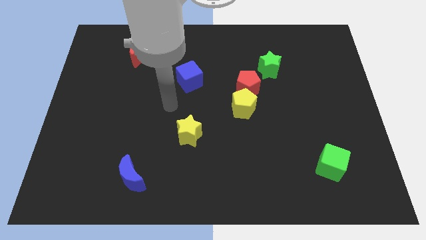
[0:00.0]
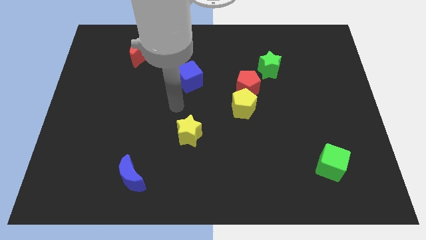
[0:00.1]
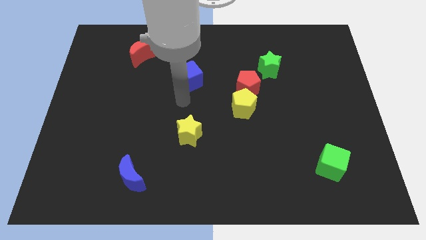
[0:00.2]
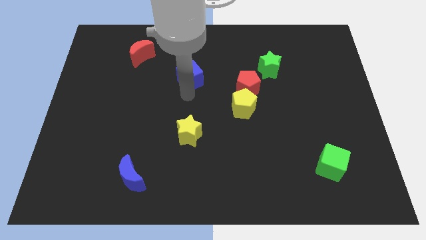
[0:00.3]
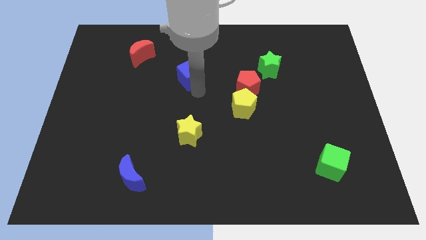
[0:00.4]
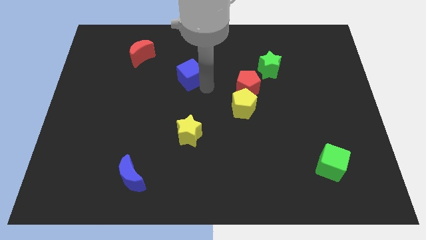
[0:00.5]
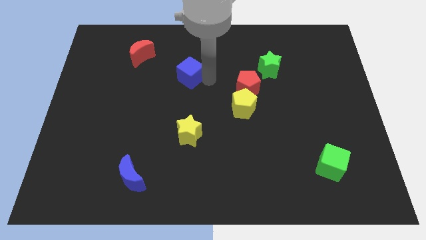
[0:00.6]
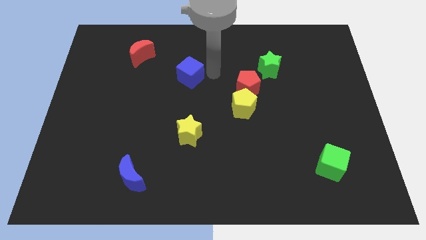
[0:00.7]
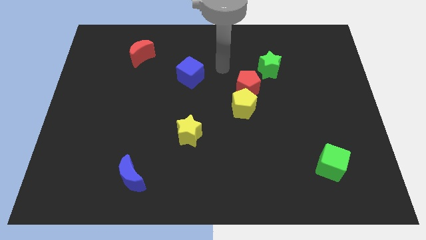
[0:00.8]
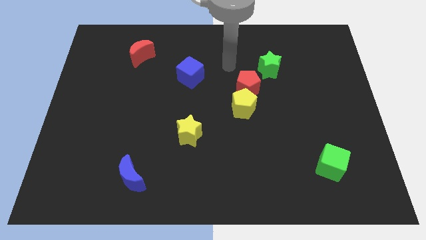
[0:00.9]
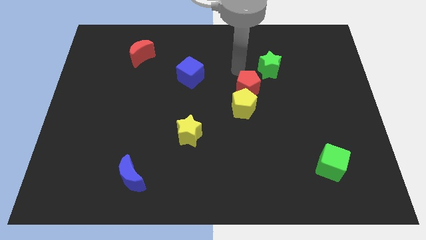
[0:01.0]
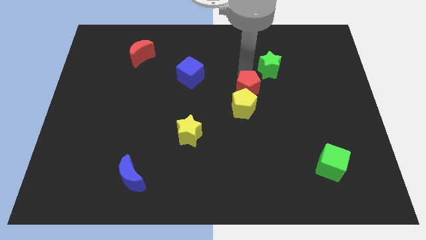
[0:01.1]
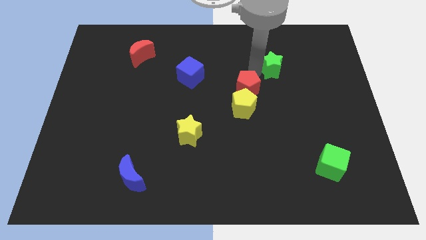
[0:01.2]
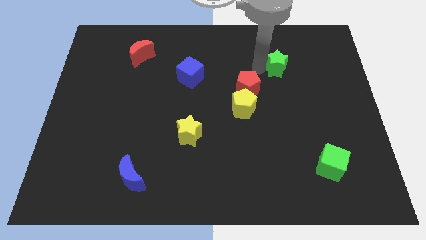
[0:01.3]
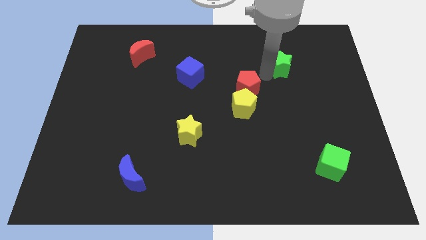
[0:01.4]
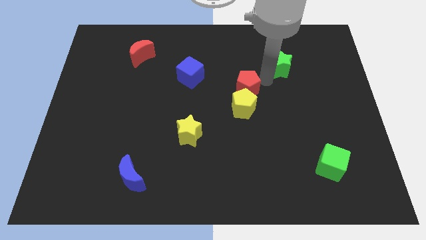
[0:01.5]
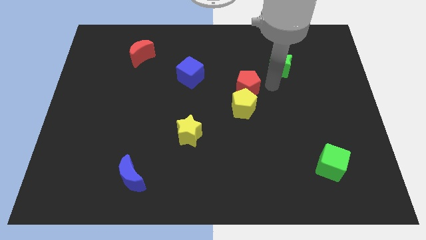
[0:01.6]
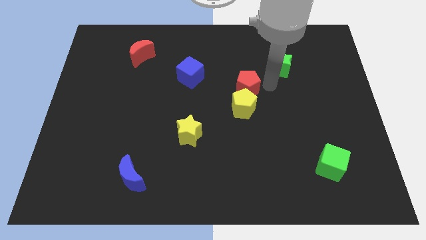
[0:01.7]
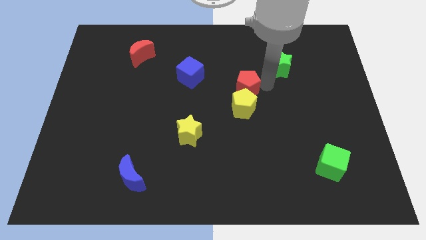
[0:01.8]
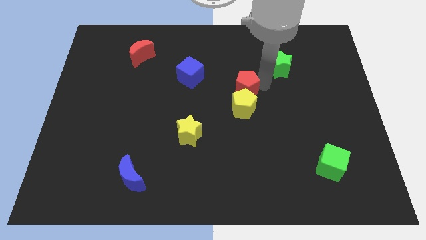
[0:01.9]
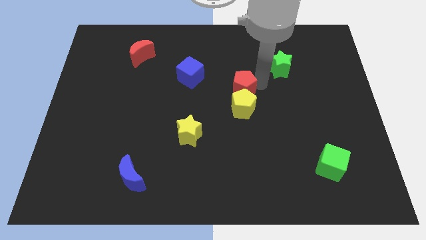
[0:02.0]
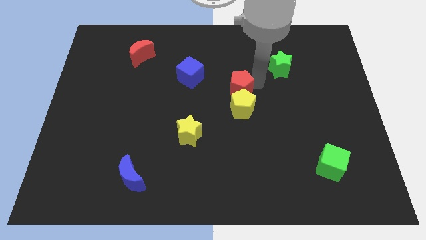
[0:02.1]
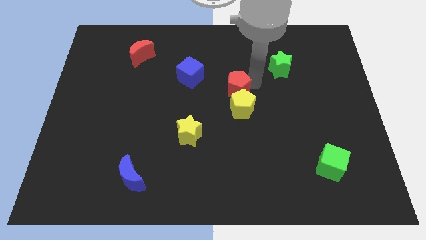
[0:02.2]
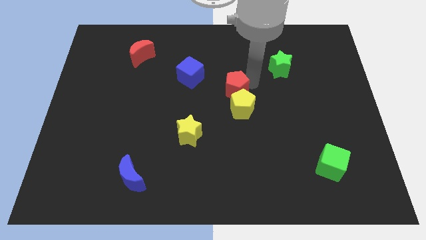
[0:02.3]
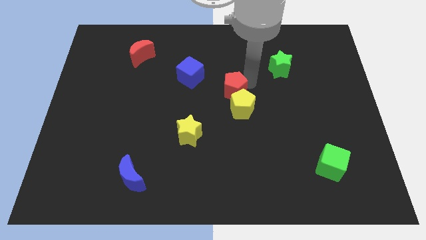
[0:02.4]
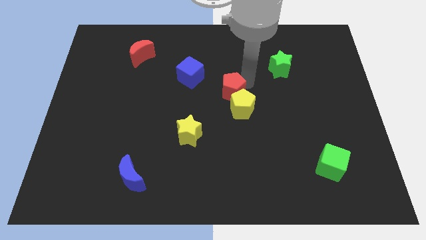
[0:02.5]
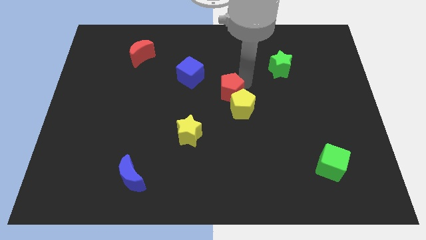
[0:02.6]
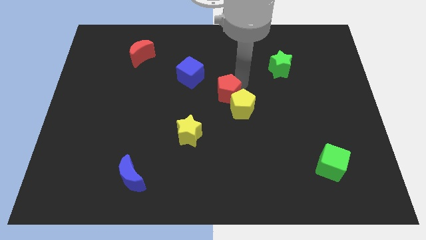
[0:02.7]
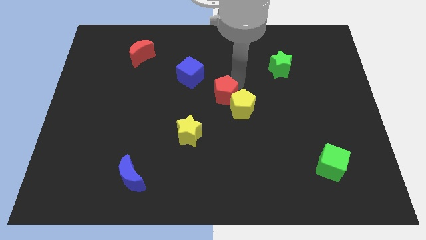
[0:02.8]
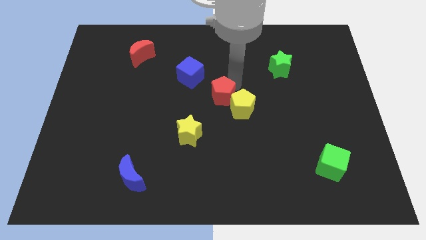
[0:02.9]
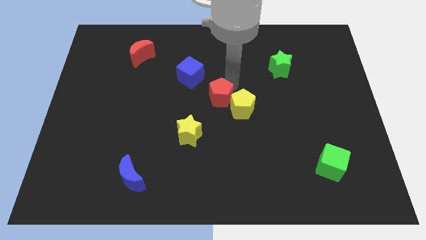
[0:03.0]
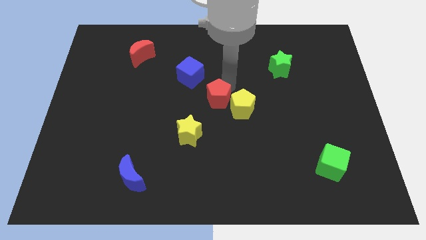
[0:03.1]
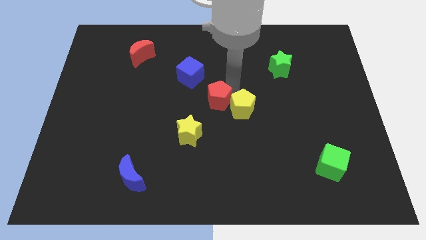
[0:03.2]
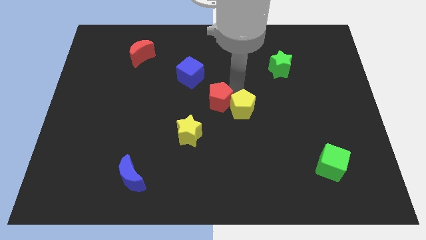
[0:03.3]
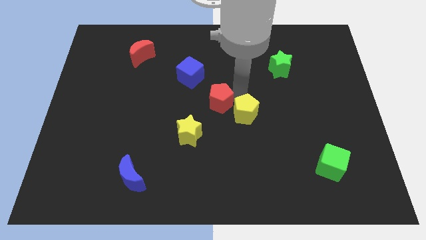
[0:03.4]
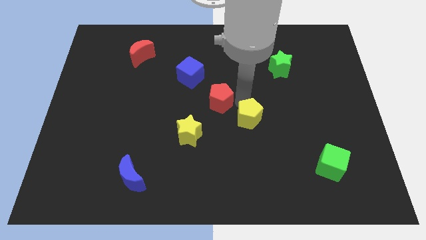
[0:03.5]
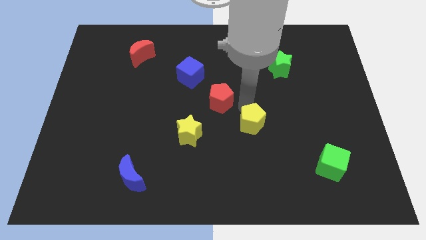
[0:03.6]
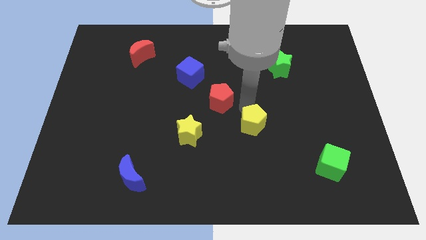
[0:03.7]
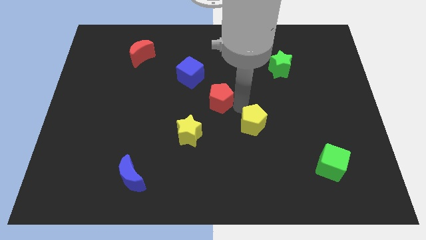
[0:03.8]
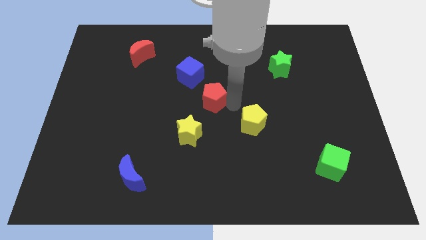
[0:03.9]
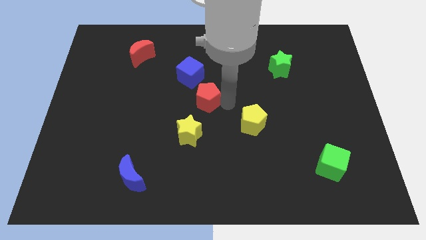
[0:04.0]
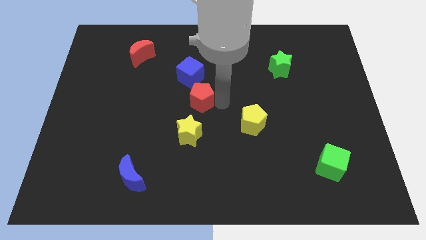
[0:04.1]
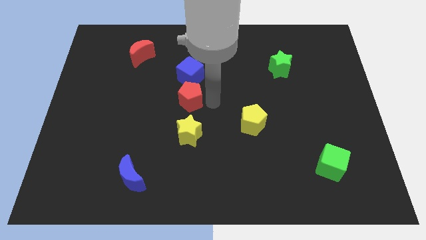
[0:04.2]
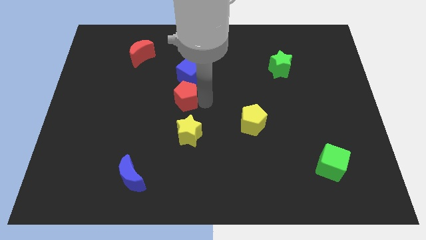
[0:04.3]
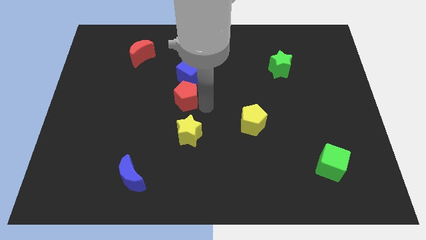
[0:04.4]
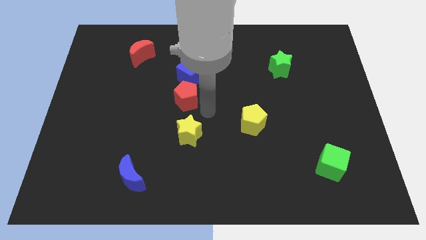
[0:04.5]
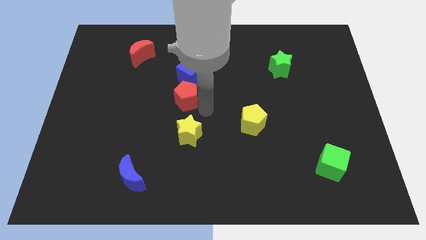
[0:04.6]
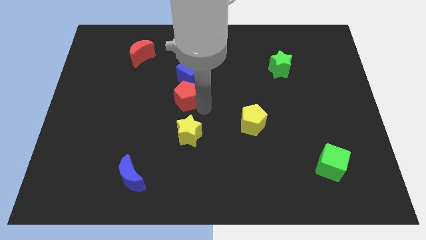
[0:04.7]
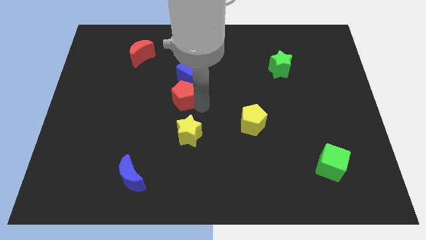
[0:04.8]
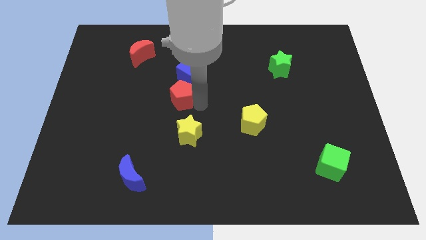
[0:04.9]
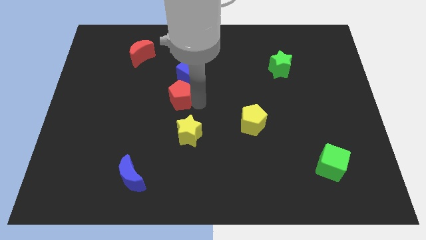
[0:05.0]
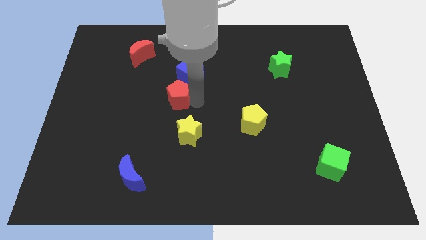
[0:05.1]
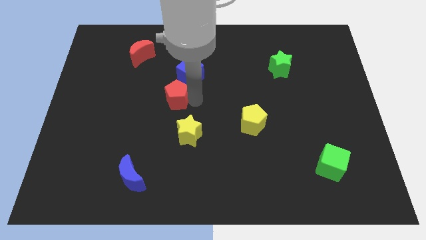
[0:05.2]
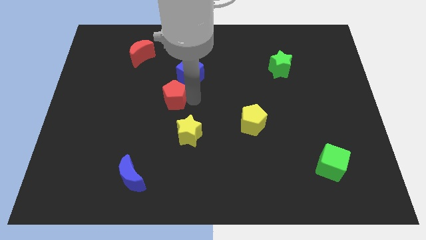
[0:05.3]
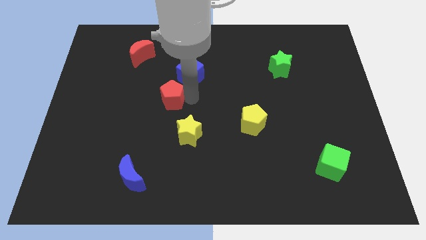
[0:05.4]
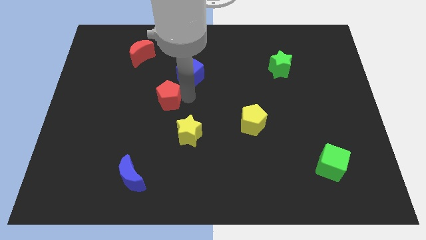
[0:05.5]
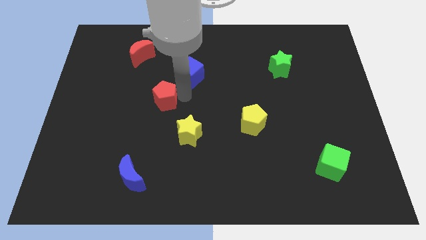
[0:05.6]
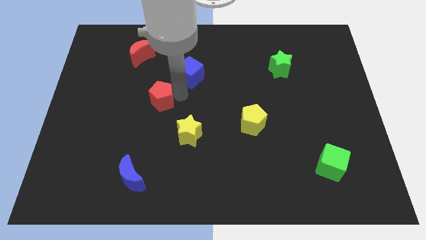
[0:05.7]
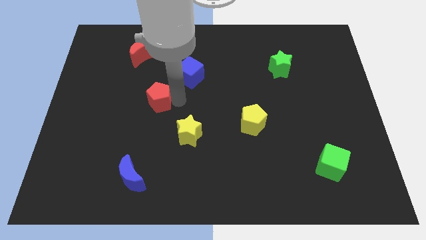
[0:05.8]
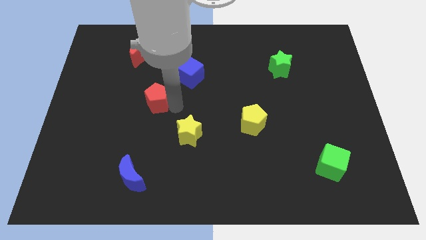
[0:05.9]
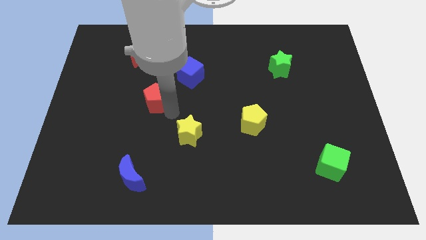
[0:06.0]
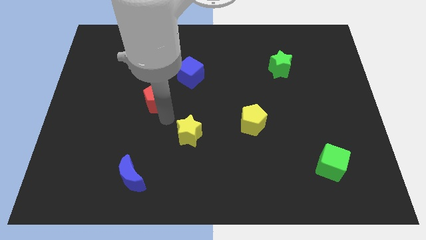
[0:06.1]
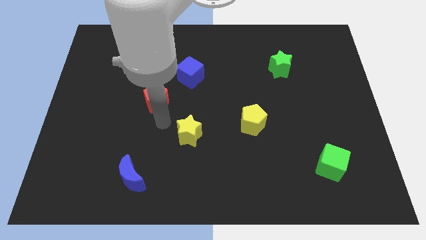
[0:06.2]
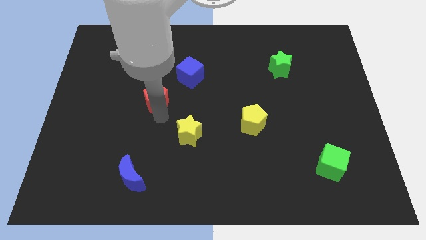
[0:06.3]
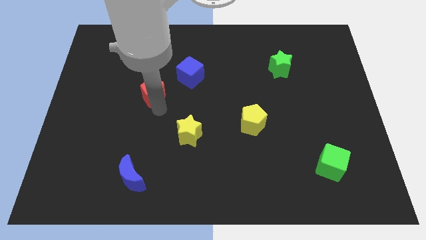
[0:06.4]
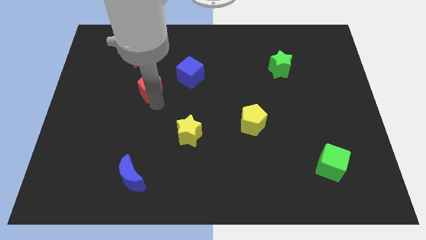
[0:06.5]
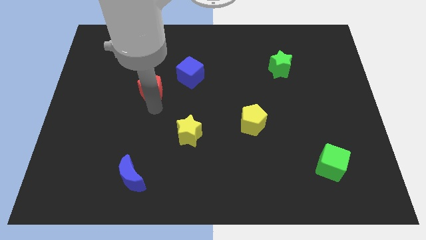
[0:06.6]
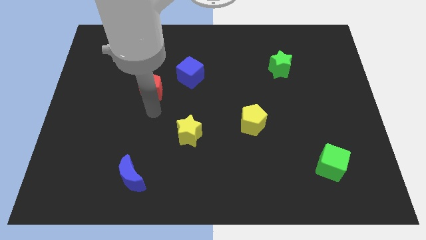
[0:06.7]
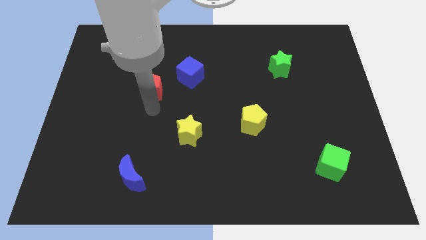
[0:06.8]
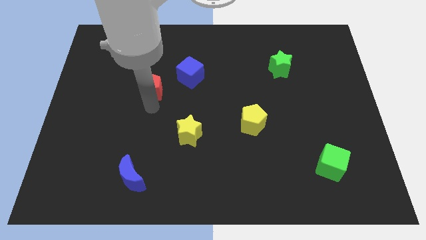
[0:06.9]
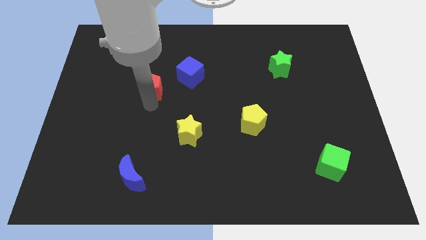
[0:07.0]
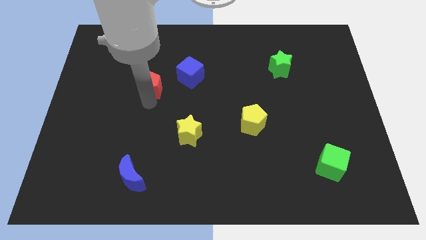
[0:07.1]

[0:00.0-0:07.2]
move the red pentagon to the left side of the blue cube
